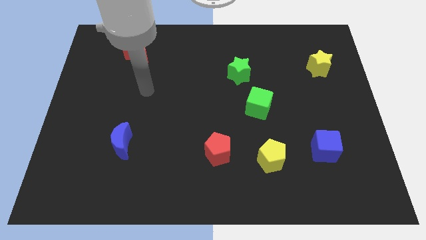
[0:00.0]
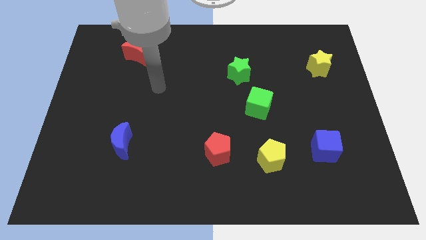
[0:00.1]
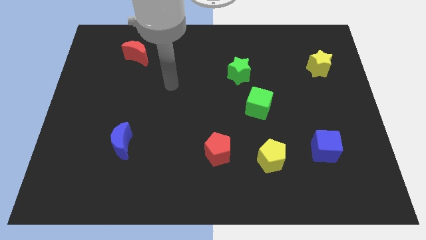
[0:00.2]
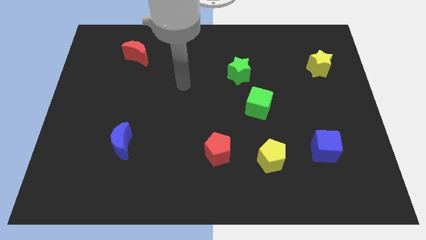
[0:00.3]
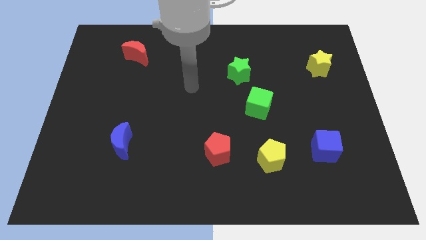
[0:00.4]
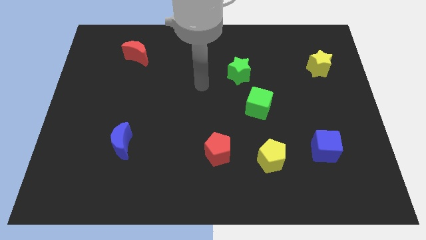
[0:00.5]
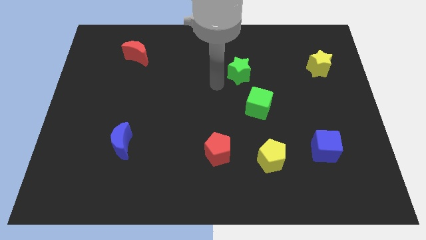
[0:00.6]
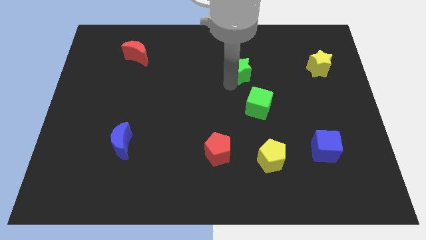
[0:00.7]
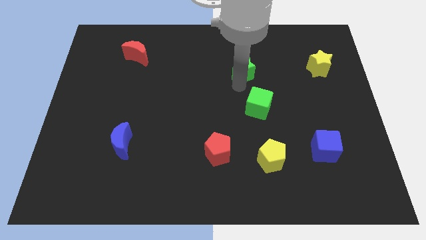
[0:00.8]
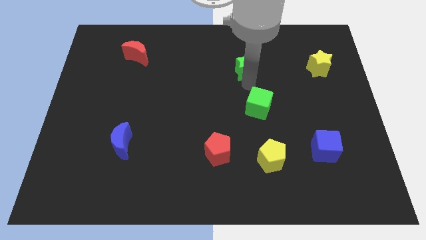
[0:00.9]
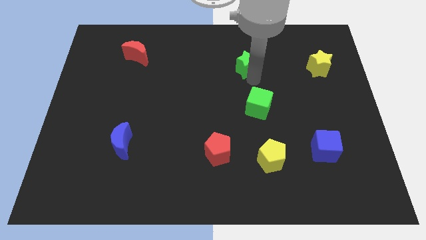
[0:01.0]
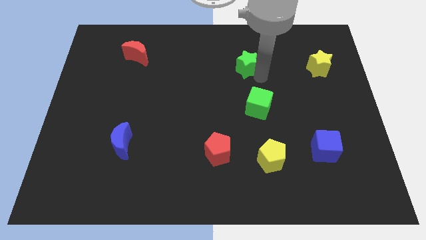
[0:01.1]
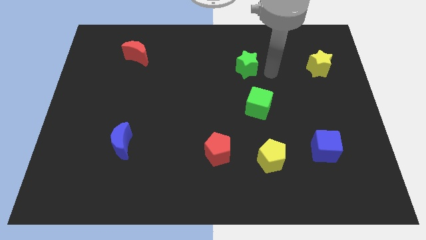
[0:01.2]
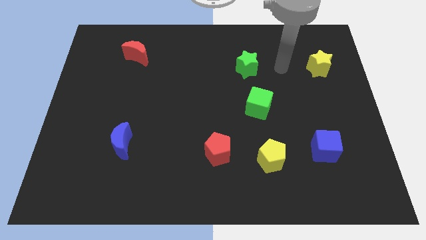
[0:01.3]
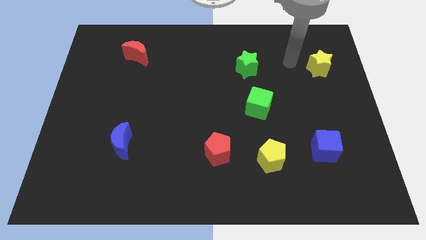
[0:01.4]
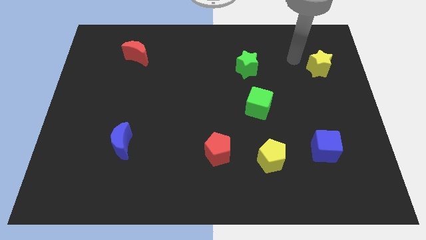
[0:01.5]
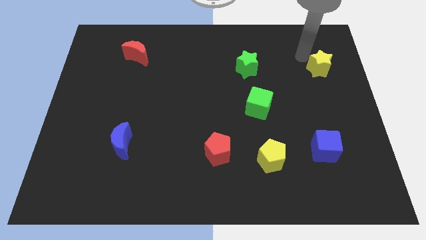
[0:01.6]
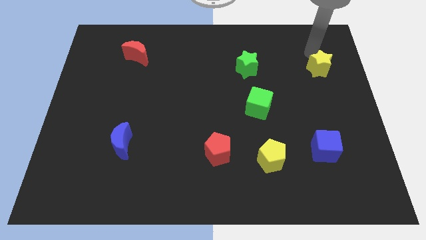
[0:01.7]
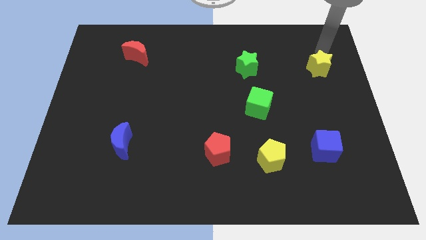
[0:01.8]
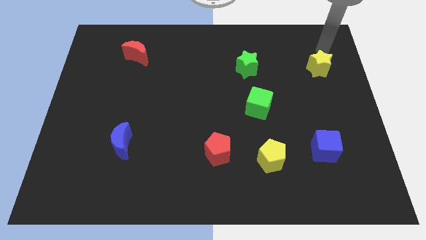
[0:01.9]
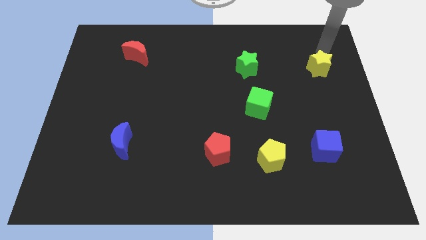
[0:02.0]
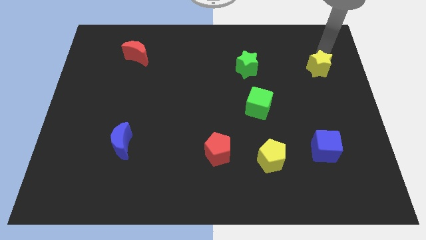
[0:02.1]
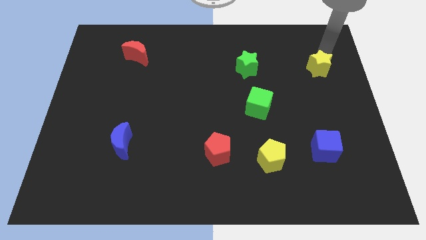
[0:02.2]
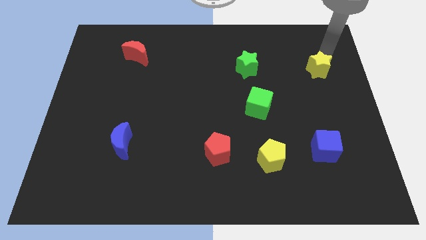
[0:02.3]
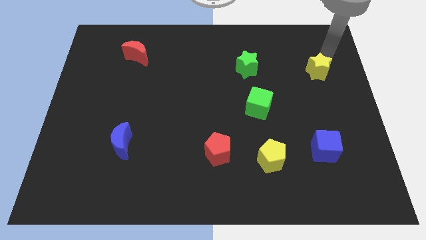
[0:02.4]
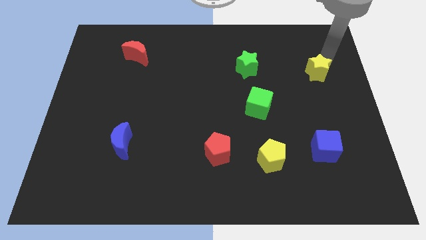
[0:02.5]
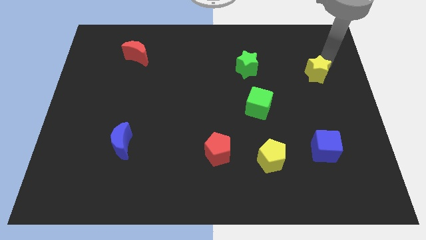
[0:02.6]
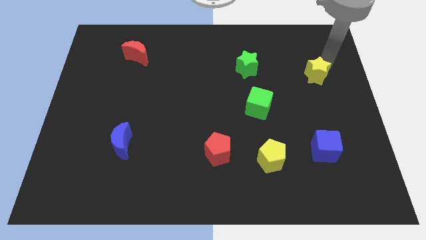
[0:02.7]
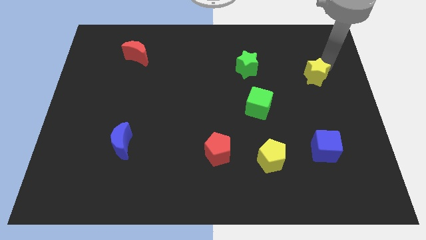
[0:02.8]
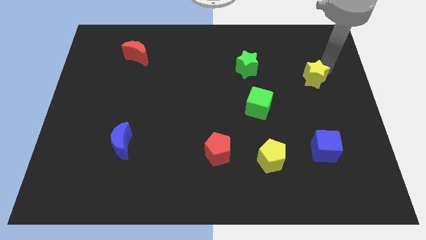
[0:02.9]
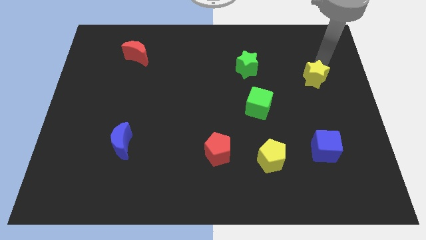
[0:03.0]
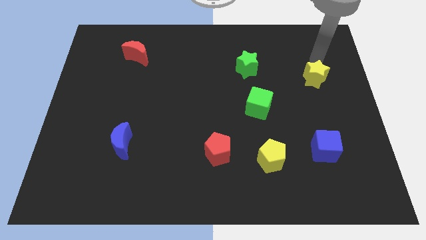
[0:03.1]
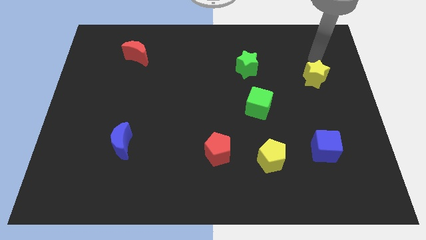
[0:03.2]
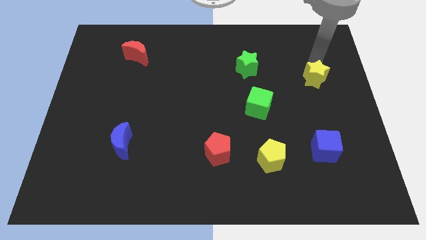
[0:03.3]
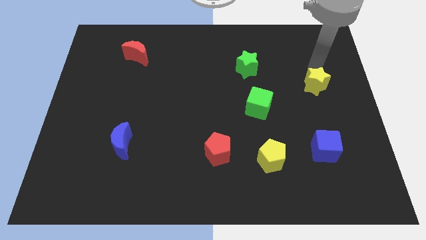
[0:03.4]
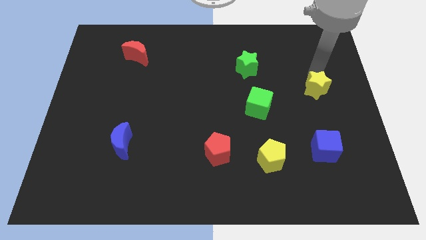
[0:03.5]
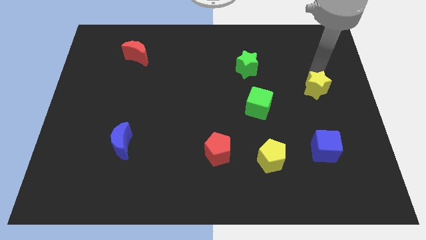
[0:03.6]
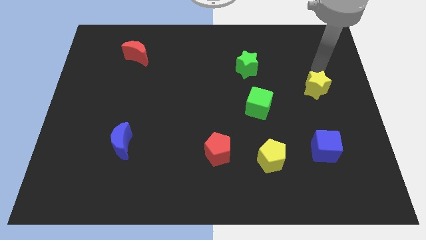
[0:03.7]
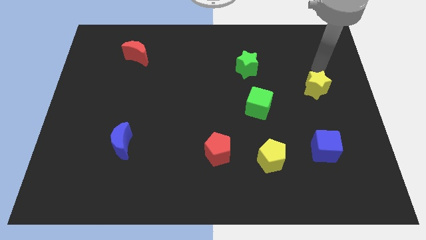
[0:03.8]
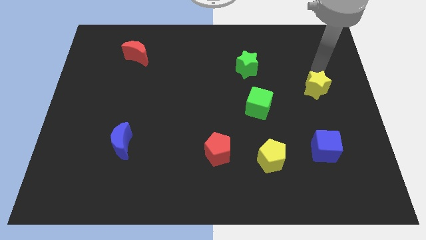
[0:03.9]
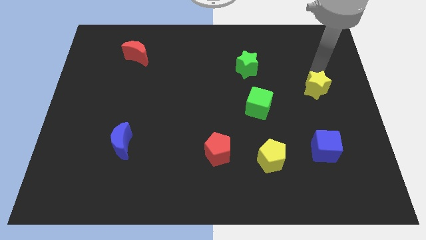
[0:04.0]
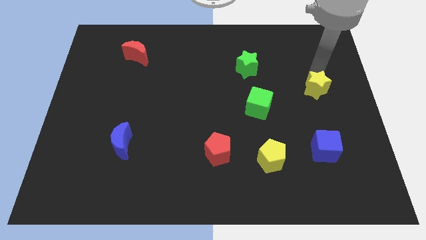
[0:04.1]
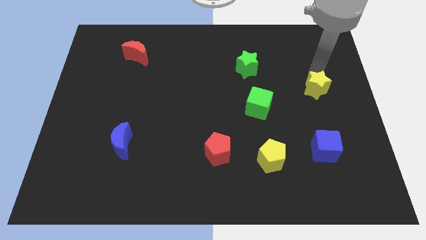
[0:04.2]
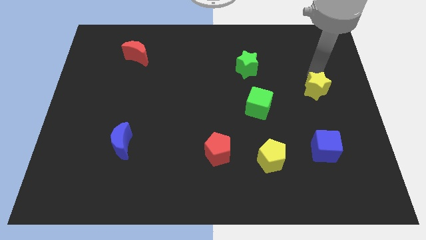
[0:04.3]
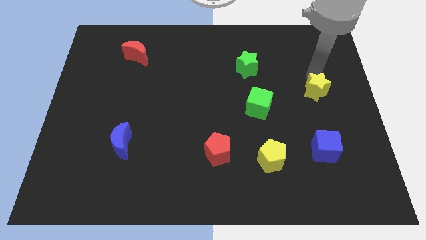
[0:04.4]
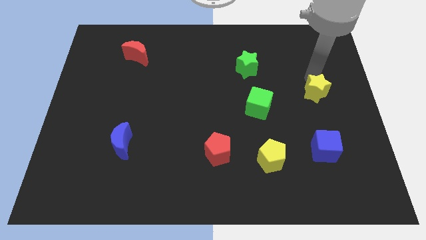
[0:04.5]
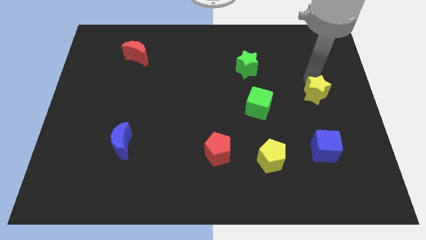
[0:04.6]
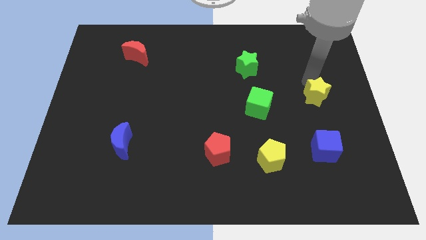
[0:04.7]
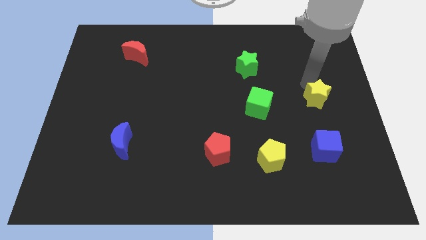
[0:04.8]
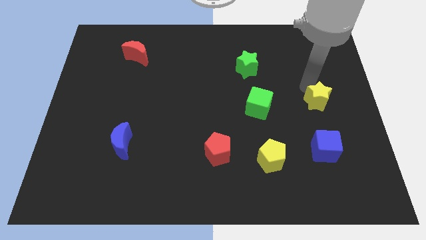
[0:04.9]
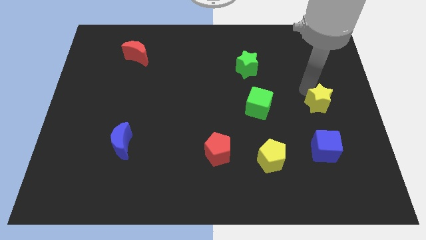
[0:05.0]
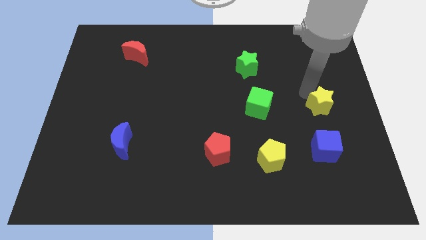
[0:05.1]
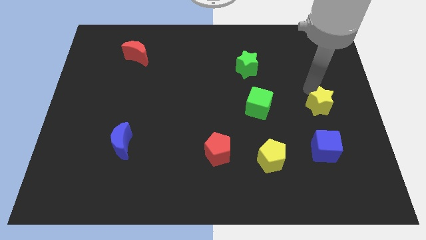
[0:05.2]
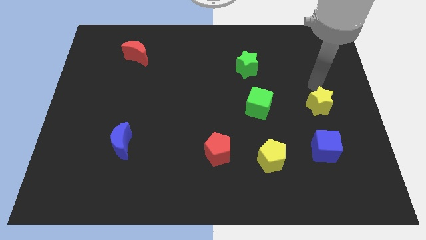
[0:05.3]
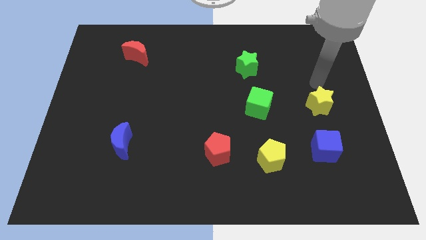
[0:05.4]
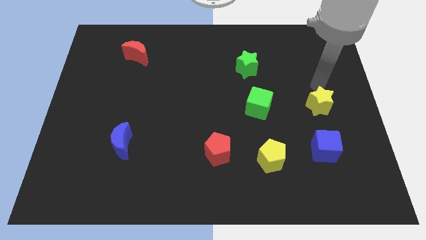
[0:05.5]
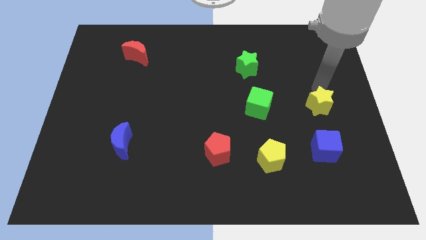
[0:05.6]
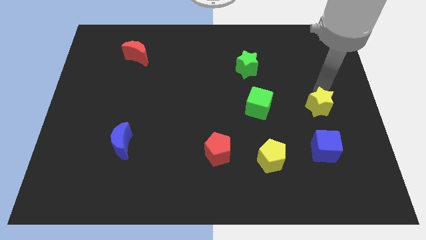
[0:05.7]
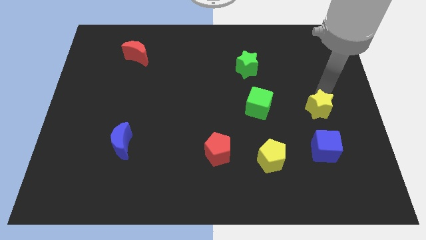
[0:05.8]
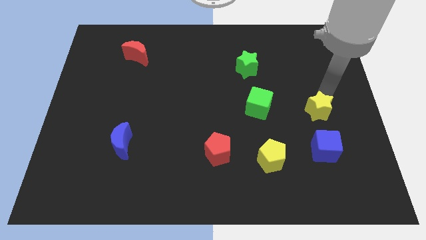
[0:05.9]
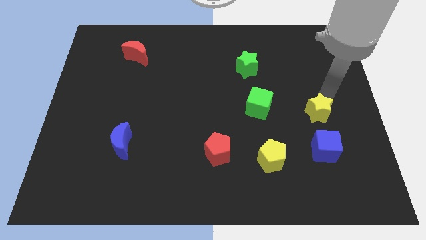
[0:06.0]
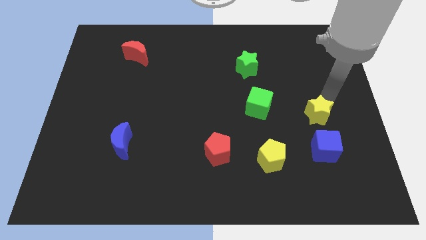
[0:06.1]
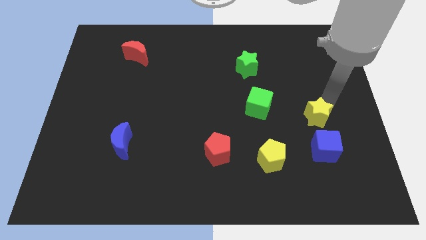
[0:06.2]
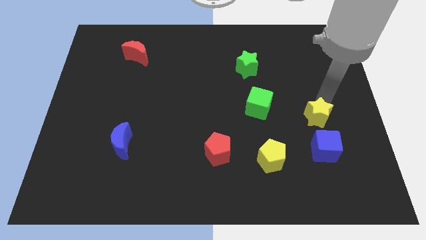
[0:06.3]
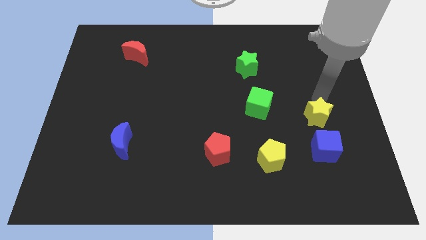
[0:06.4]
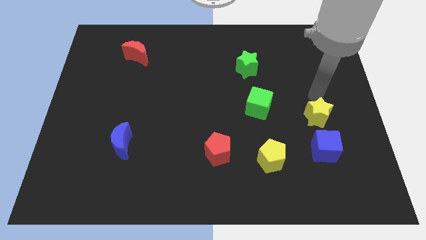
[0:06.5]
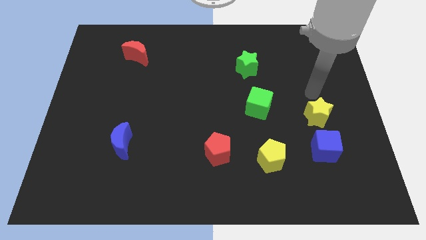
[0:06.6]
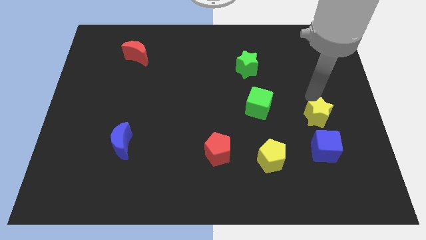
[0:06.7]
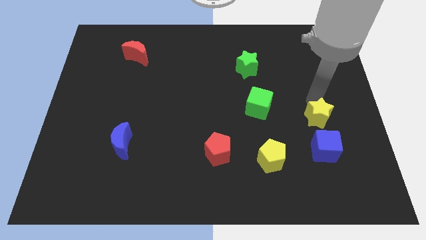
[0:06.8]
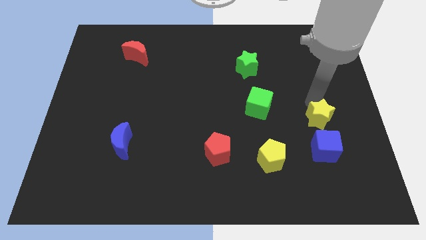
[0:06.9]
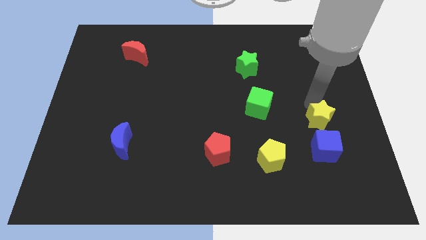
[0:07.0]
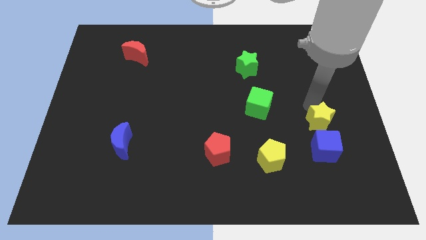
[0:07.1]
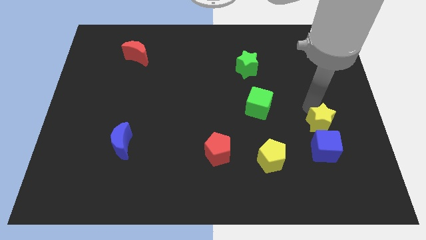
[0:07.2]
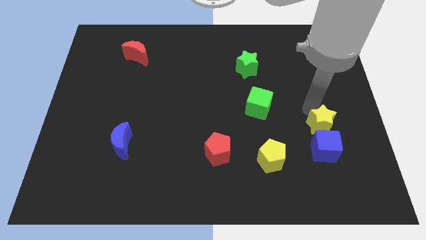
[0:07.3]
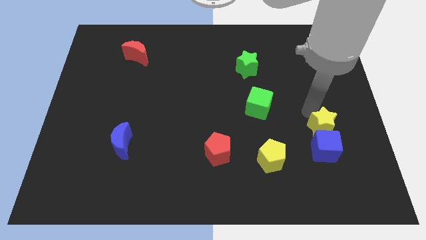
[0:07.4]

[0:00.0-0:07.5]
move the yellow star close to the blue cube

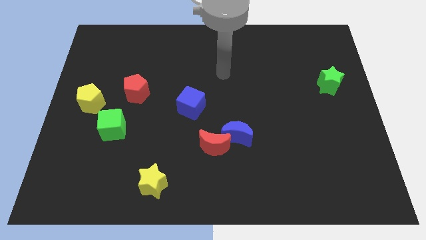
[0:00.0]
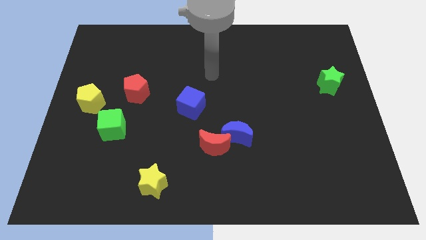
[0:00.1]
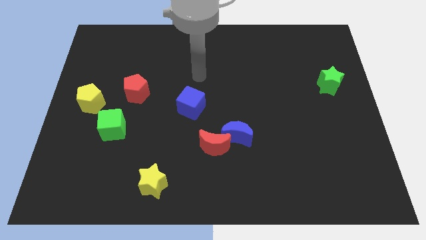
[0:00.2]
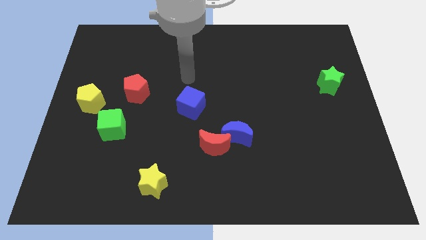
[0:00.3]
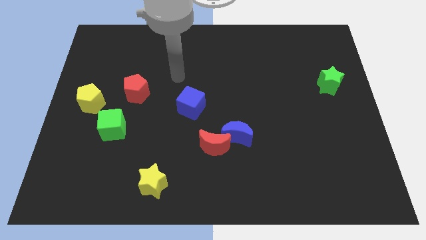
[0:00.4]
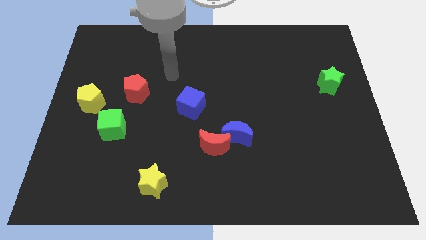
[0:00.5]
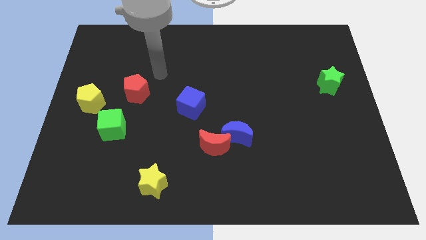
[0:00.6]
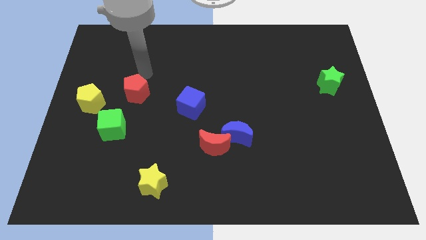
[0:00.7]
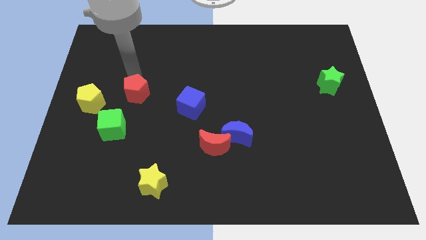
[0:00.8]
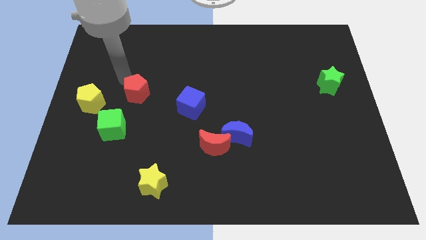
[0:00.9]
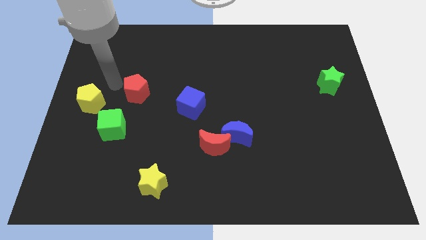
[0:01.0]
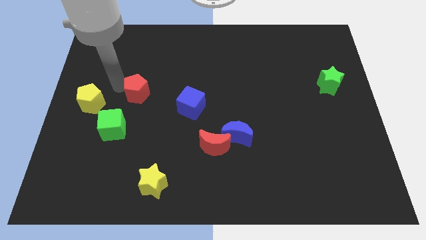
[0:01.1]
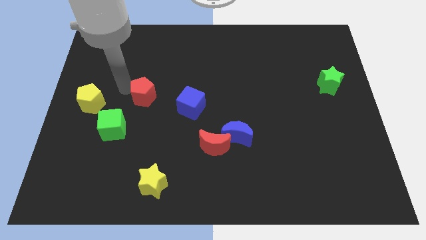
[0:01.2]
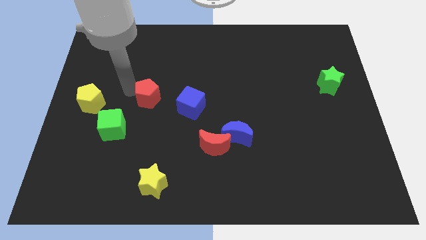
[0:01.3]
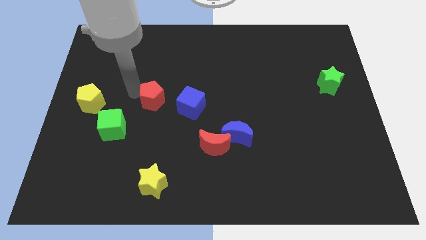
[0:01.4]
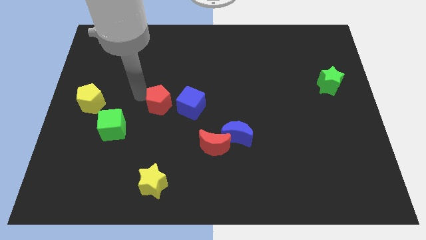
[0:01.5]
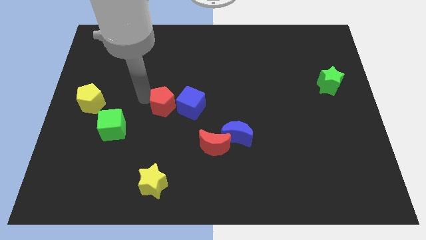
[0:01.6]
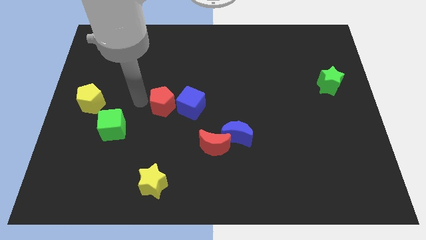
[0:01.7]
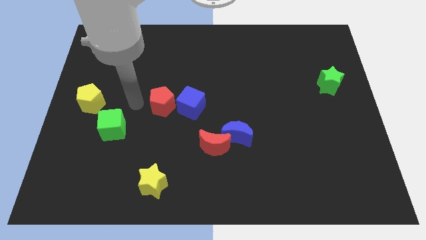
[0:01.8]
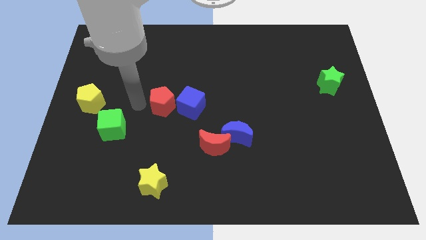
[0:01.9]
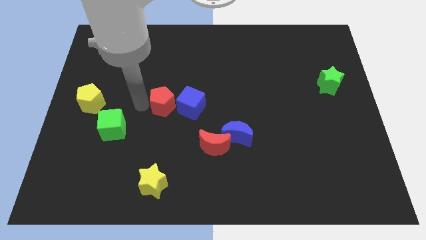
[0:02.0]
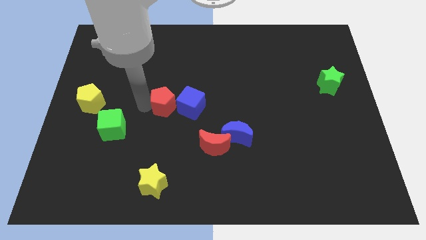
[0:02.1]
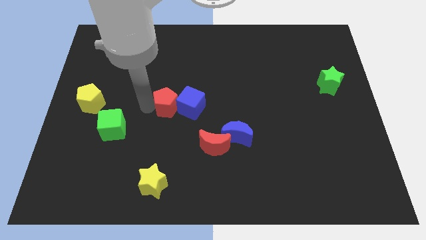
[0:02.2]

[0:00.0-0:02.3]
move the red pentagon next to the blue cube
